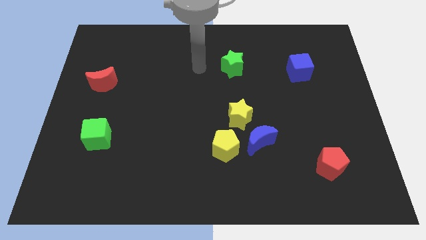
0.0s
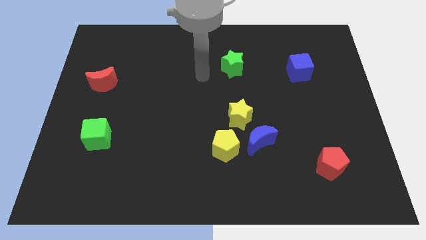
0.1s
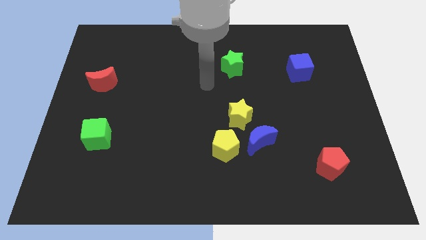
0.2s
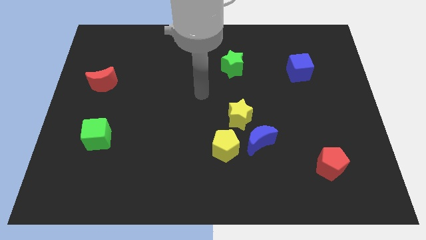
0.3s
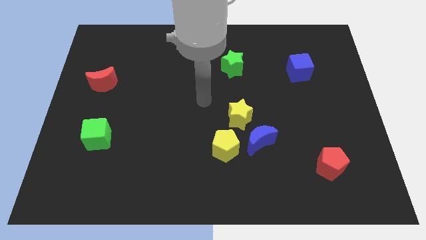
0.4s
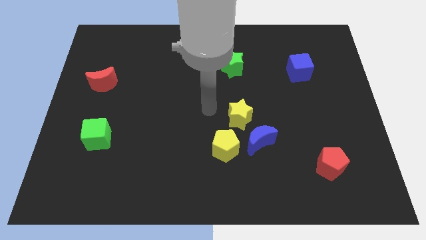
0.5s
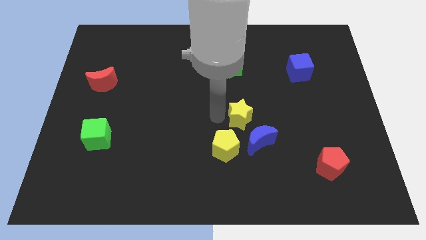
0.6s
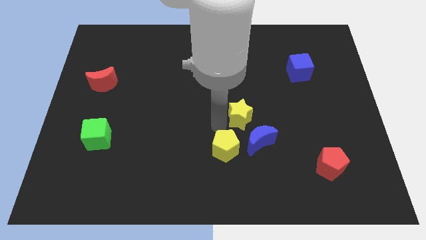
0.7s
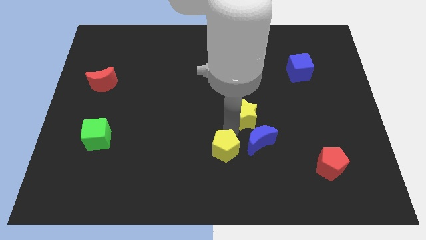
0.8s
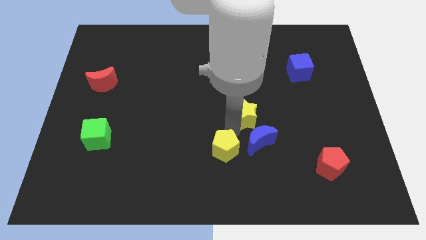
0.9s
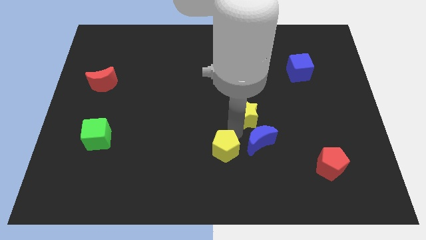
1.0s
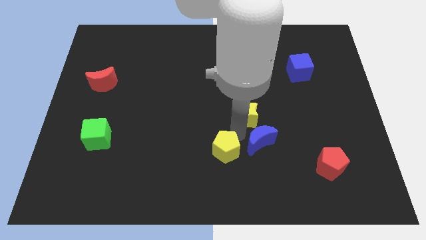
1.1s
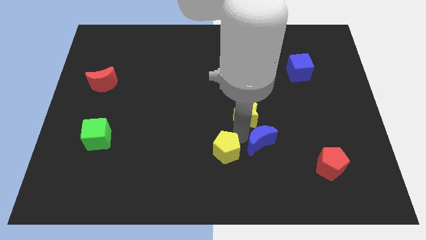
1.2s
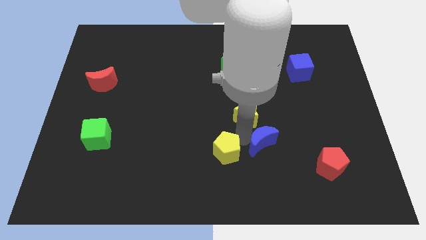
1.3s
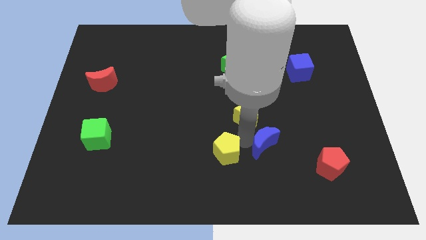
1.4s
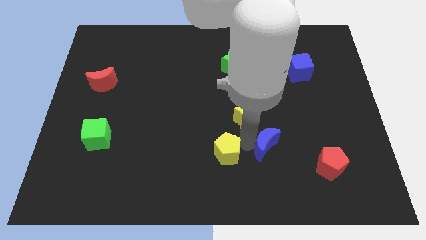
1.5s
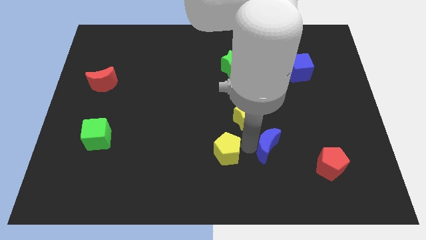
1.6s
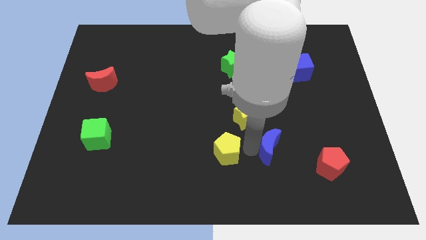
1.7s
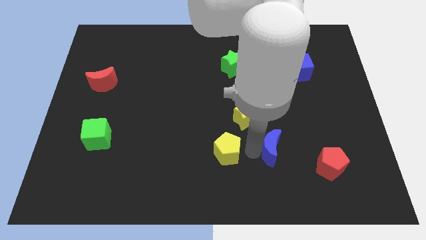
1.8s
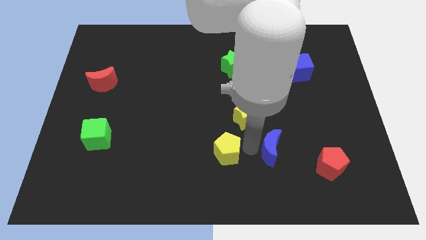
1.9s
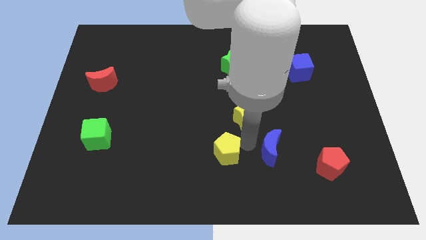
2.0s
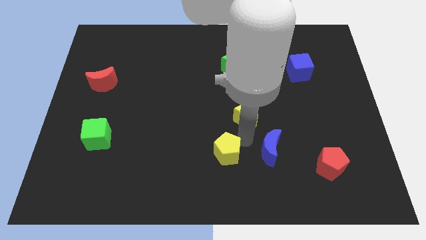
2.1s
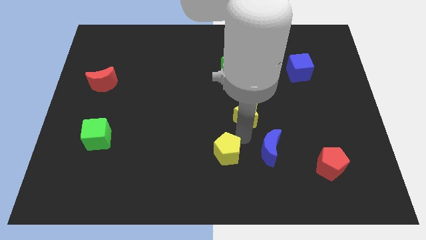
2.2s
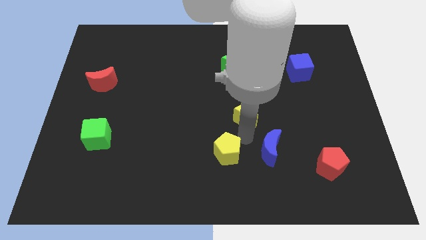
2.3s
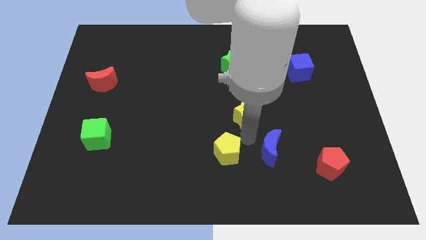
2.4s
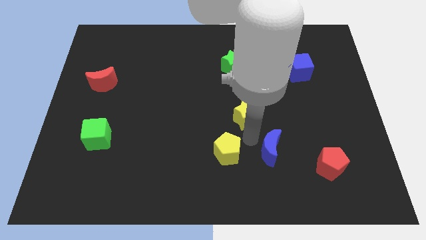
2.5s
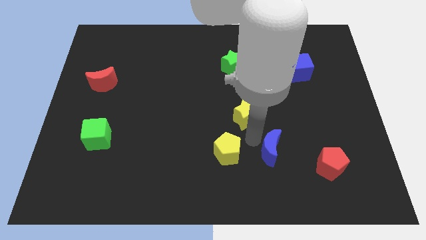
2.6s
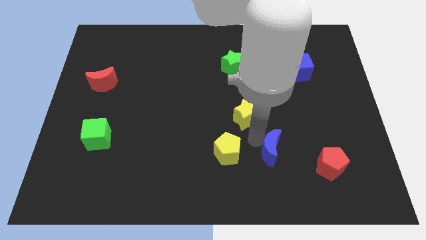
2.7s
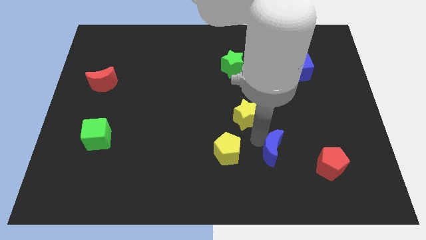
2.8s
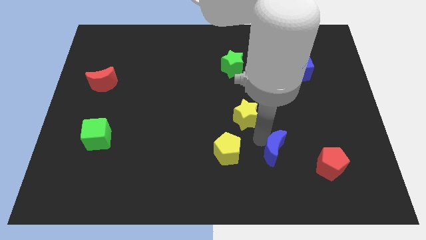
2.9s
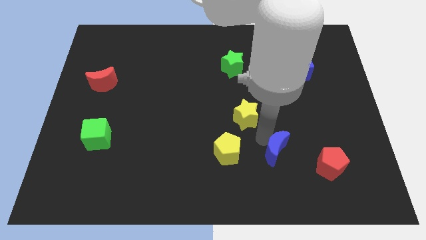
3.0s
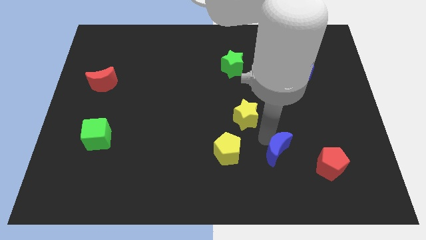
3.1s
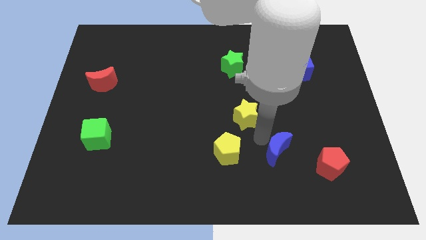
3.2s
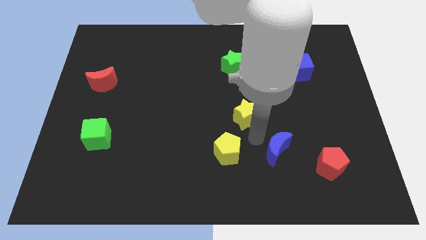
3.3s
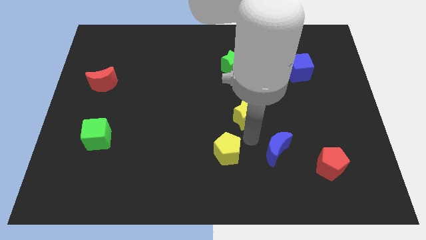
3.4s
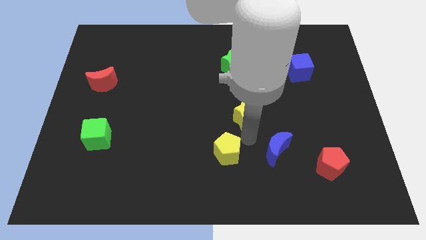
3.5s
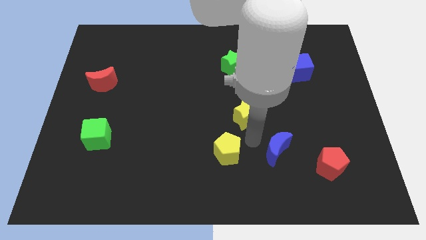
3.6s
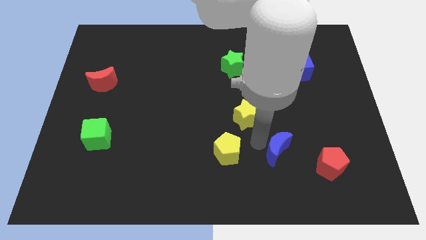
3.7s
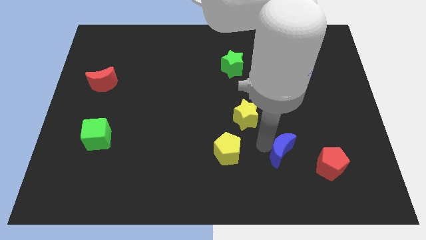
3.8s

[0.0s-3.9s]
pull the blue moon apart from the yellow star and yellow pentagon

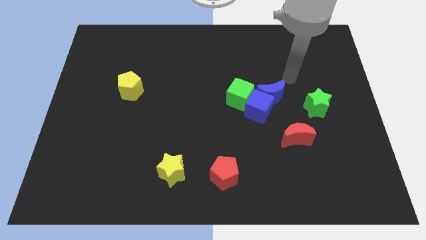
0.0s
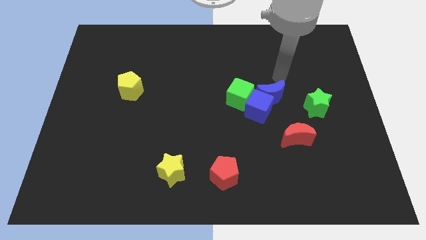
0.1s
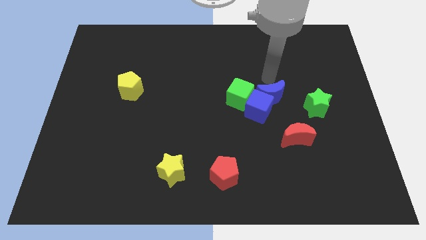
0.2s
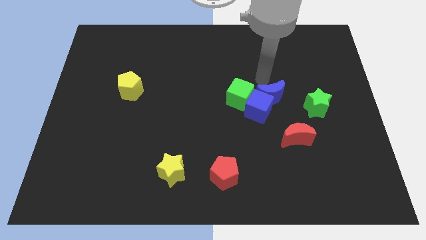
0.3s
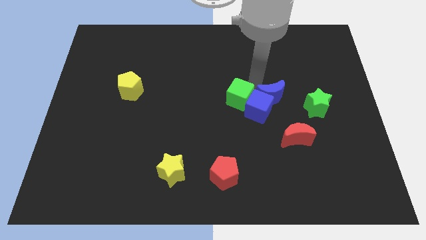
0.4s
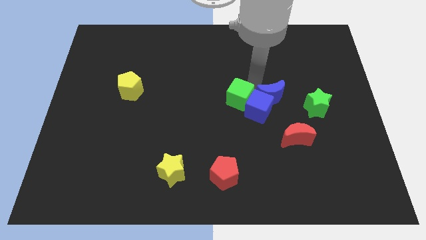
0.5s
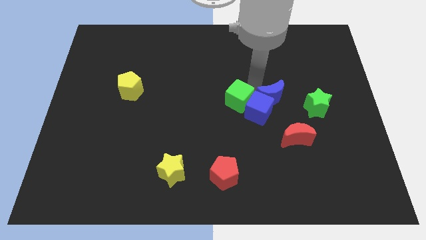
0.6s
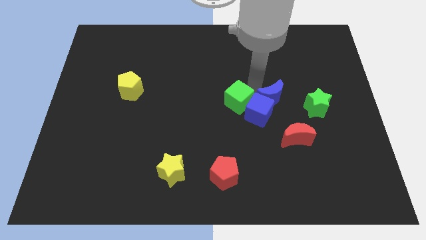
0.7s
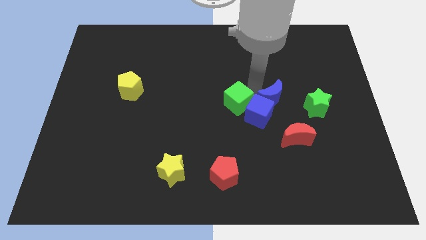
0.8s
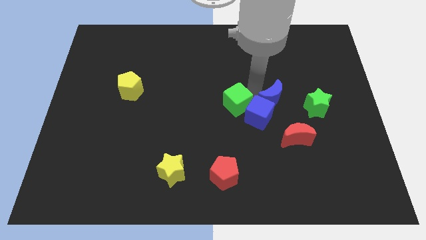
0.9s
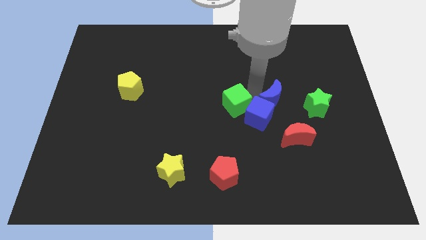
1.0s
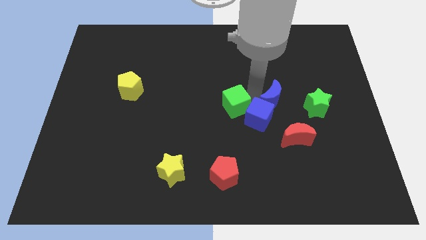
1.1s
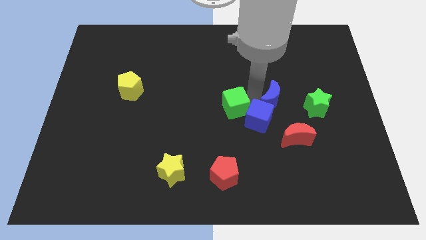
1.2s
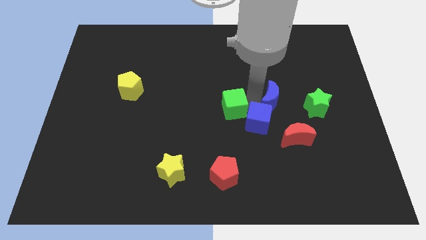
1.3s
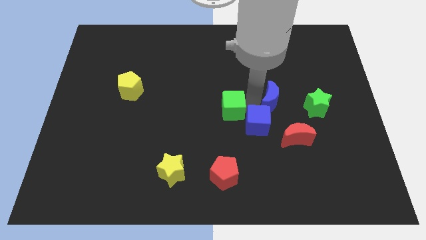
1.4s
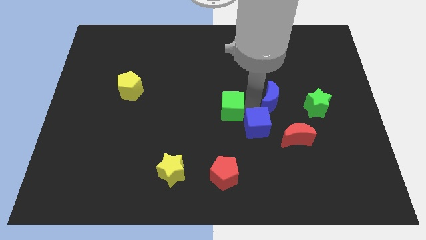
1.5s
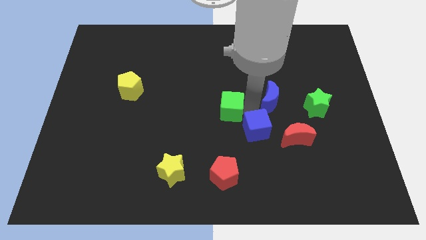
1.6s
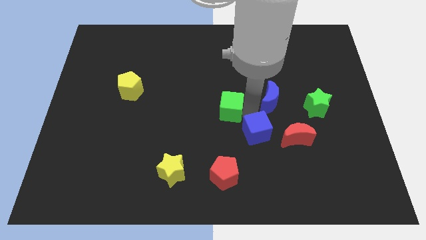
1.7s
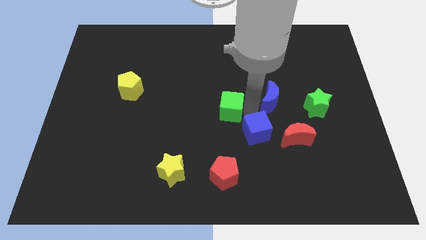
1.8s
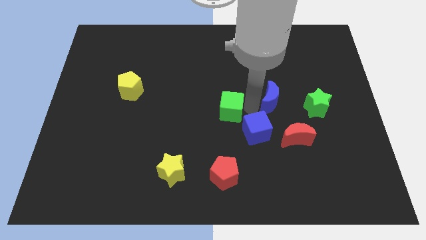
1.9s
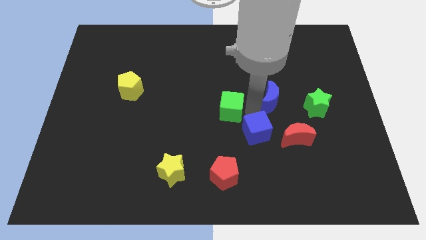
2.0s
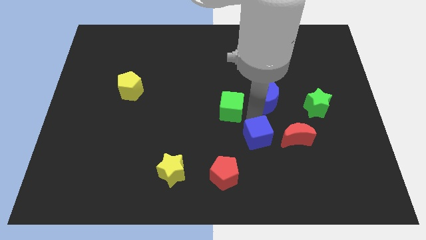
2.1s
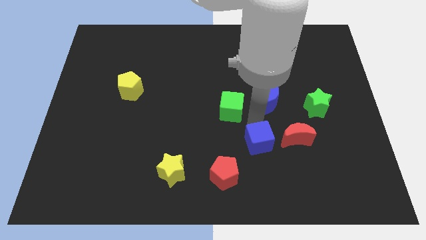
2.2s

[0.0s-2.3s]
pull the blue cube apart from the blue moon and green cube

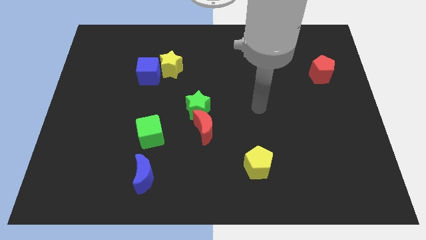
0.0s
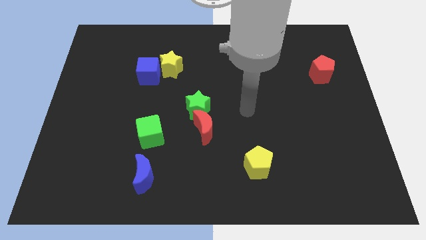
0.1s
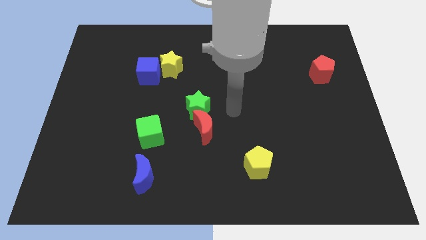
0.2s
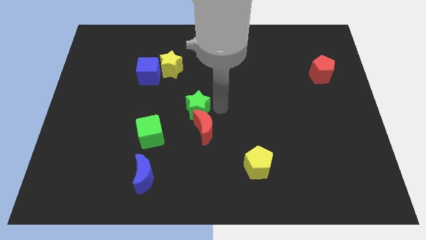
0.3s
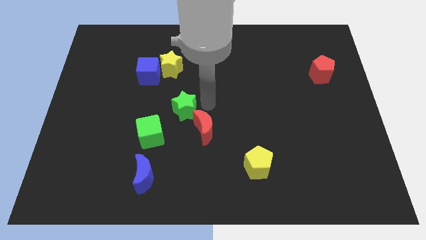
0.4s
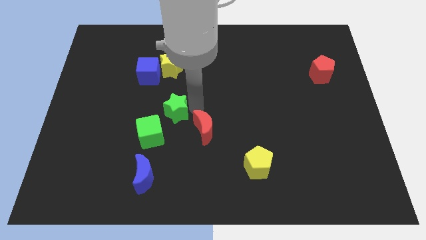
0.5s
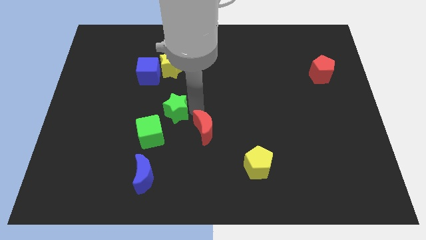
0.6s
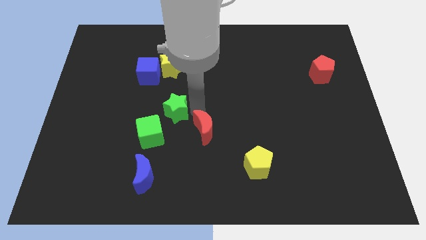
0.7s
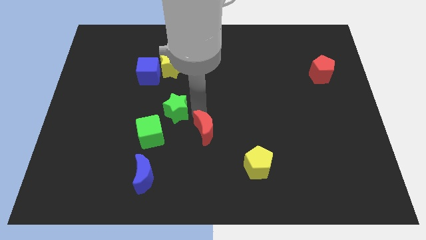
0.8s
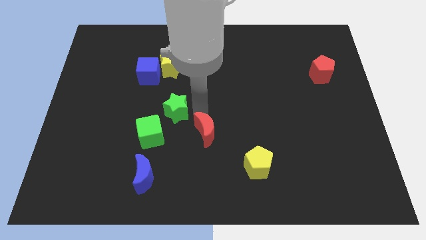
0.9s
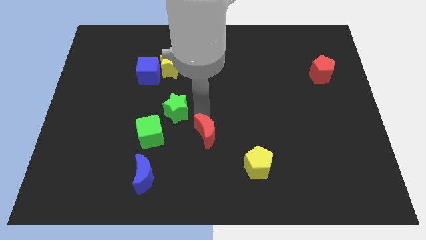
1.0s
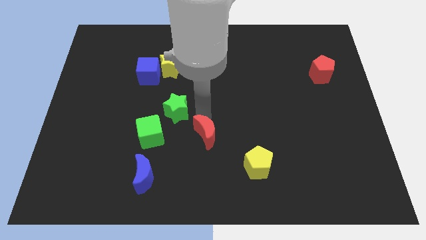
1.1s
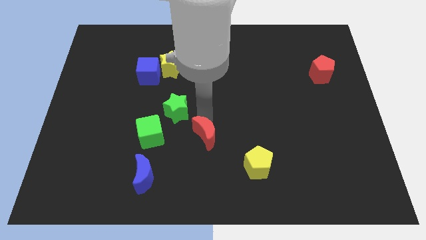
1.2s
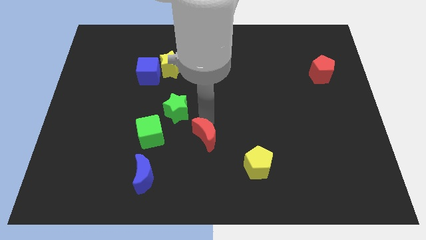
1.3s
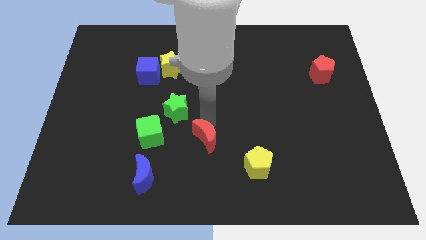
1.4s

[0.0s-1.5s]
pull the red moon apart from the green star

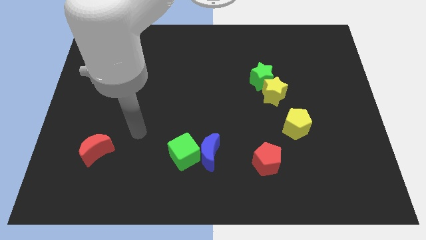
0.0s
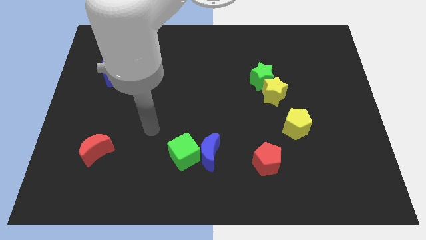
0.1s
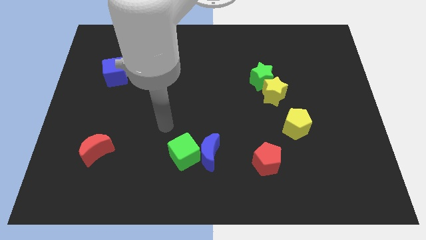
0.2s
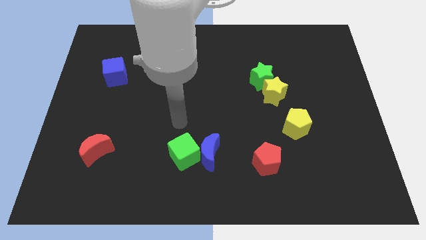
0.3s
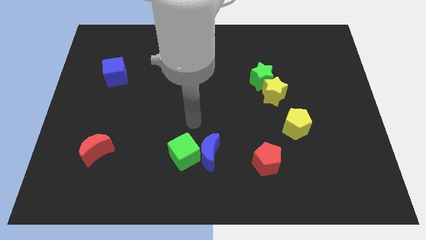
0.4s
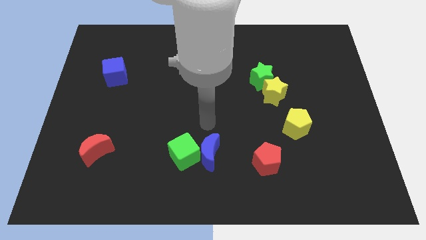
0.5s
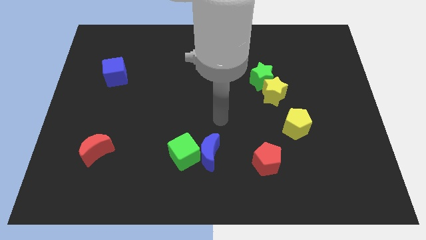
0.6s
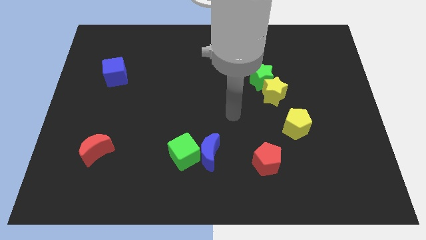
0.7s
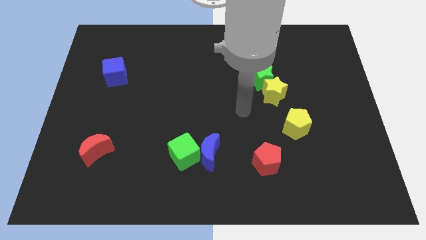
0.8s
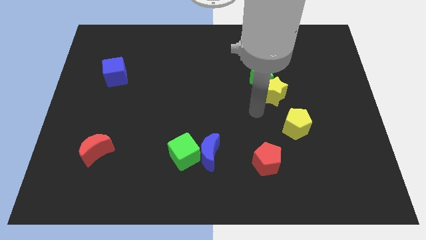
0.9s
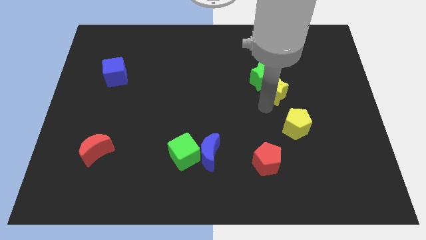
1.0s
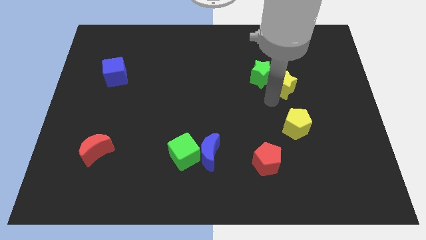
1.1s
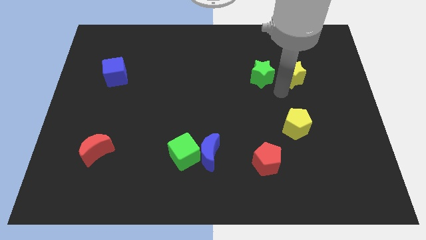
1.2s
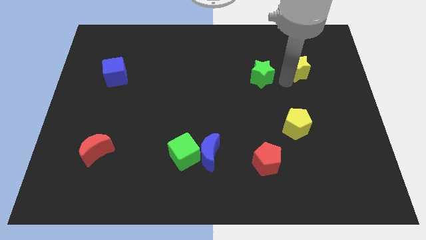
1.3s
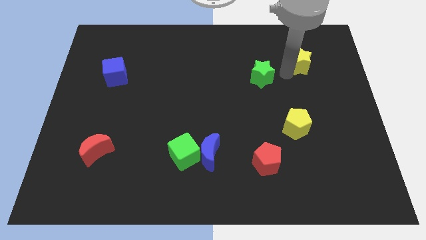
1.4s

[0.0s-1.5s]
pull the green star apart from the yellow star

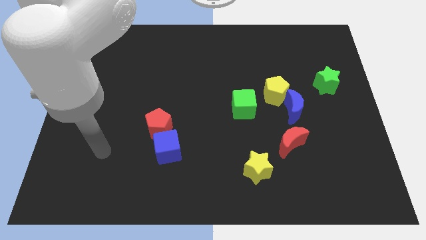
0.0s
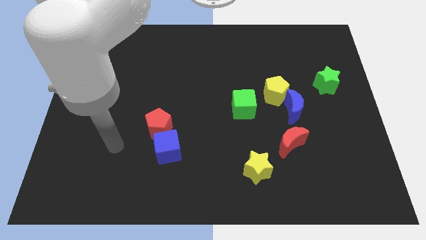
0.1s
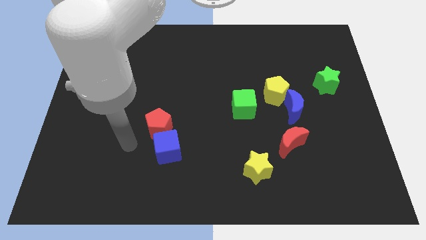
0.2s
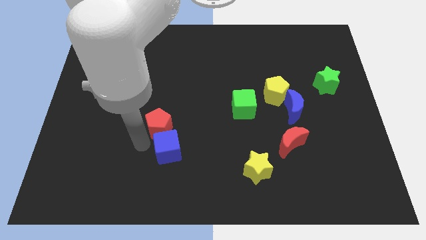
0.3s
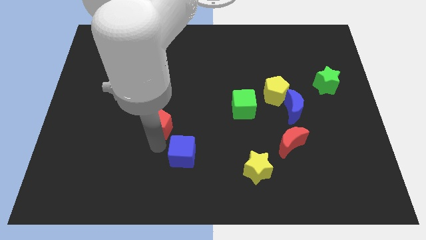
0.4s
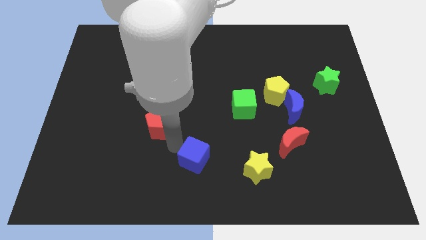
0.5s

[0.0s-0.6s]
separate the red pentagon from the blue cube
